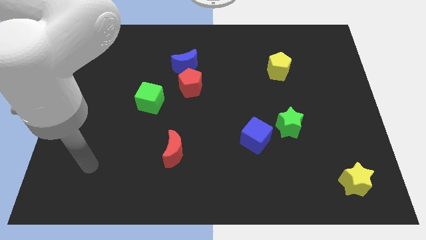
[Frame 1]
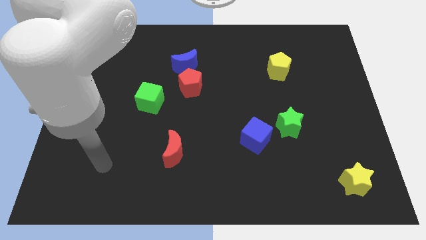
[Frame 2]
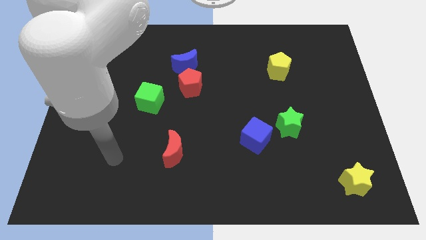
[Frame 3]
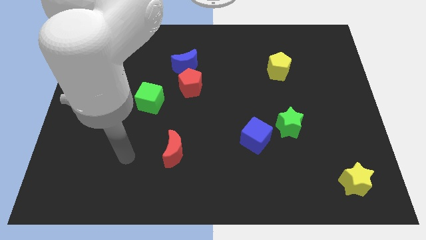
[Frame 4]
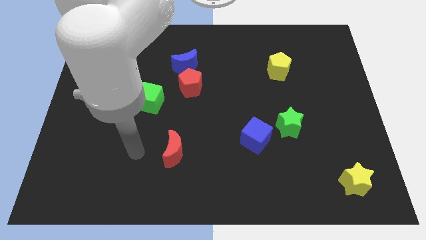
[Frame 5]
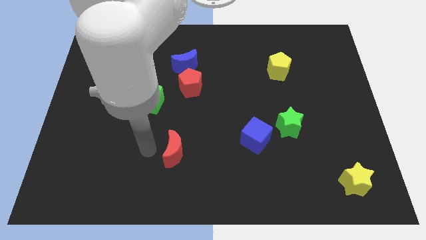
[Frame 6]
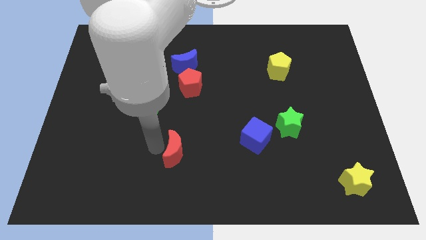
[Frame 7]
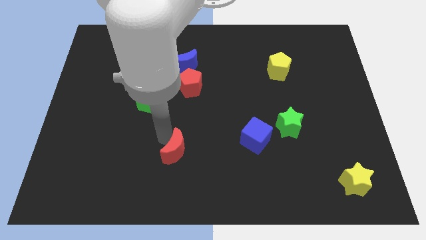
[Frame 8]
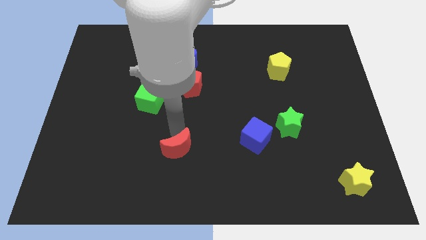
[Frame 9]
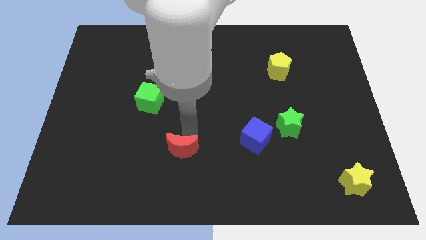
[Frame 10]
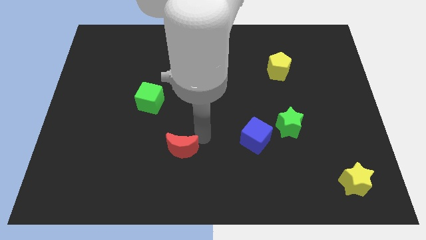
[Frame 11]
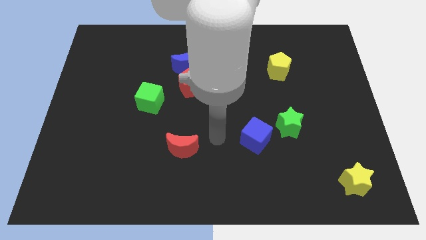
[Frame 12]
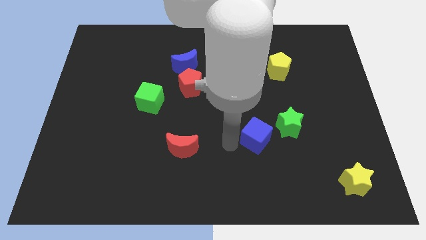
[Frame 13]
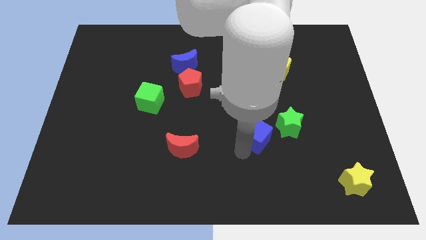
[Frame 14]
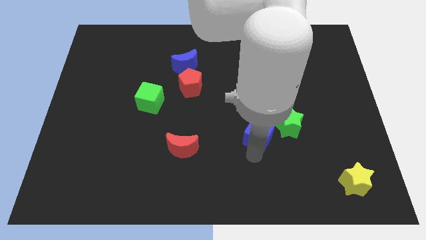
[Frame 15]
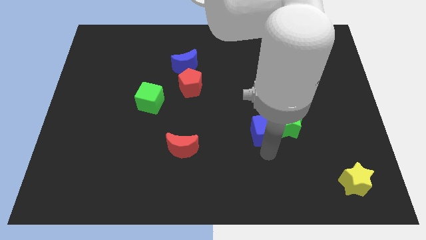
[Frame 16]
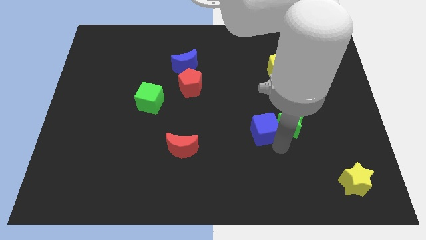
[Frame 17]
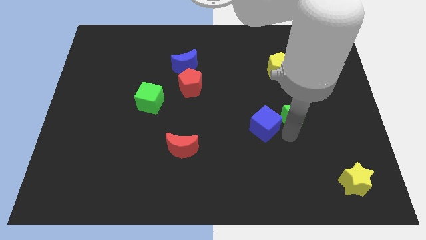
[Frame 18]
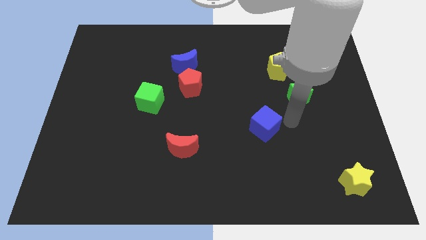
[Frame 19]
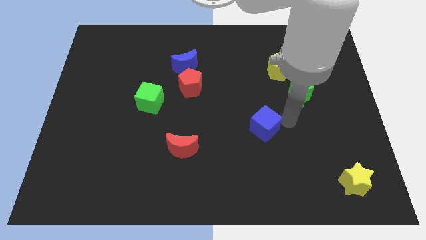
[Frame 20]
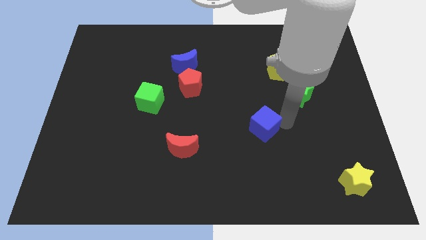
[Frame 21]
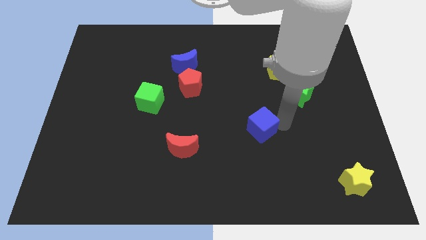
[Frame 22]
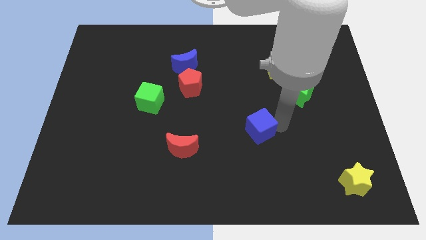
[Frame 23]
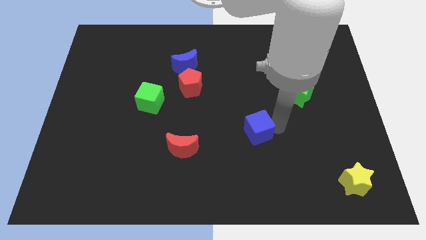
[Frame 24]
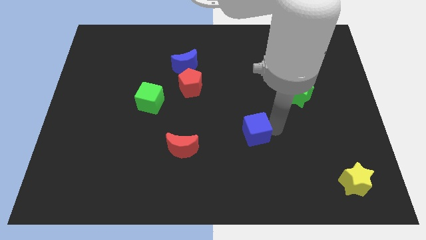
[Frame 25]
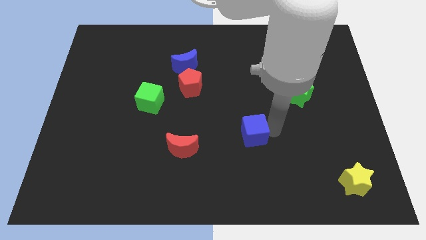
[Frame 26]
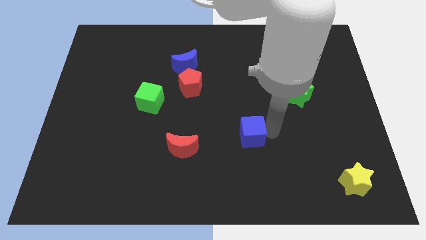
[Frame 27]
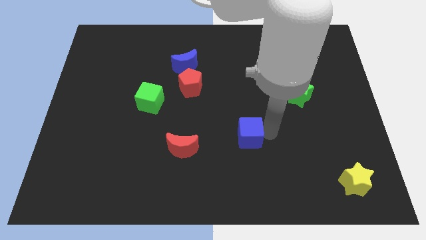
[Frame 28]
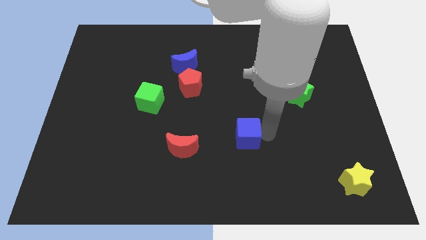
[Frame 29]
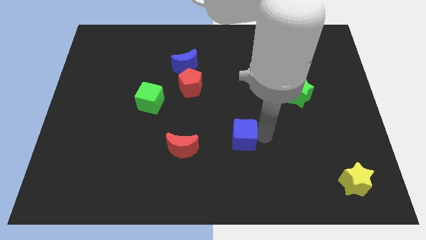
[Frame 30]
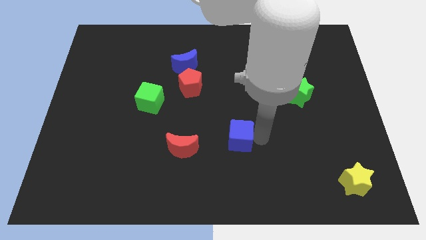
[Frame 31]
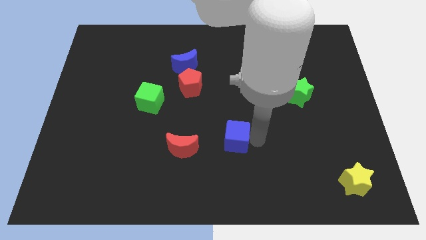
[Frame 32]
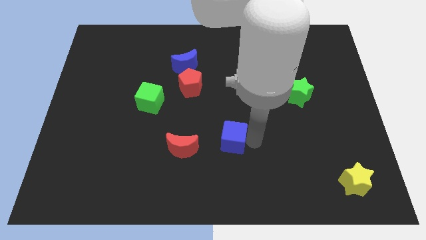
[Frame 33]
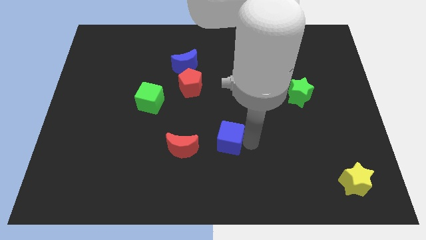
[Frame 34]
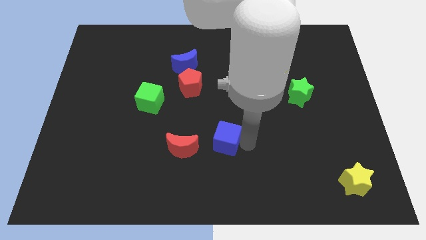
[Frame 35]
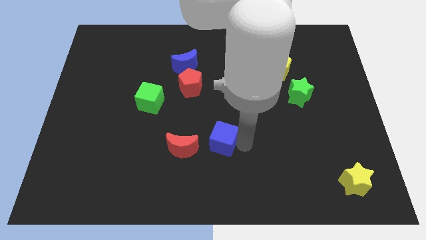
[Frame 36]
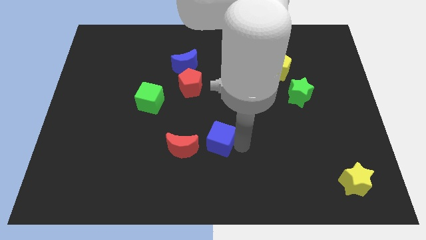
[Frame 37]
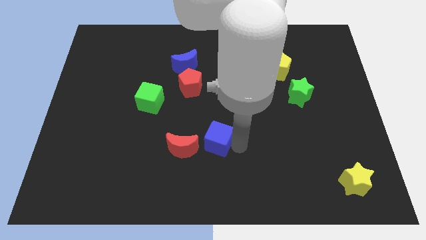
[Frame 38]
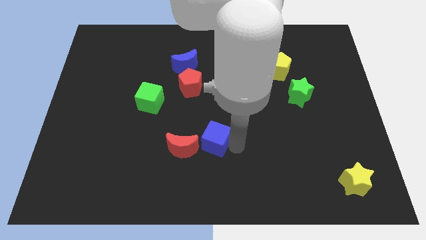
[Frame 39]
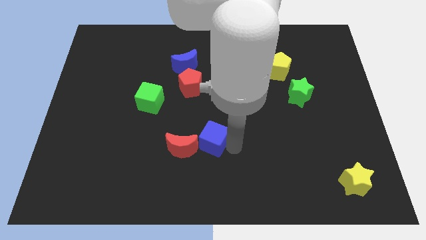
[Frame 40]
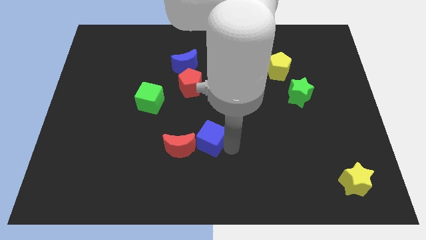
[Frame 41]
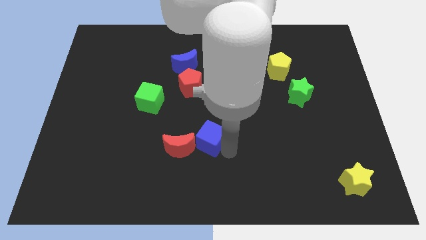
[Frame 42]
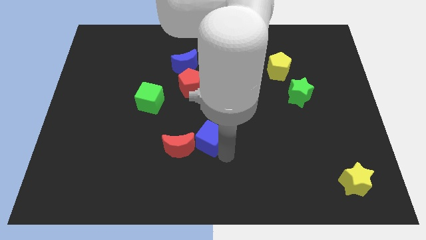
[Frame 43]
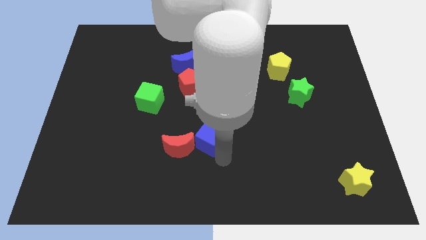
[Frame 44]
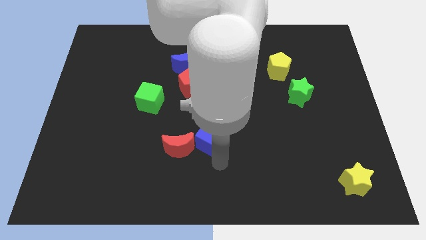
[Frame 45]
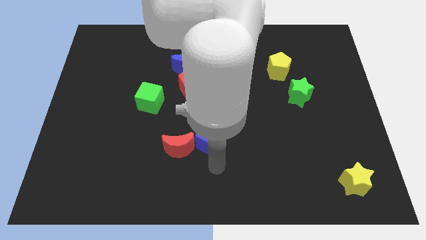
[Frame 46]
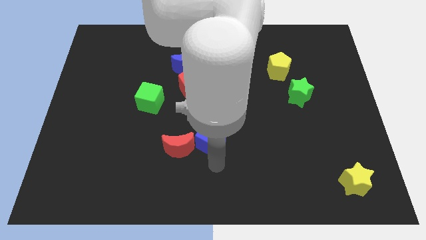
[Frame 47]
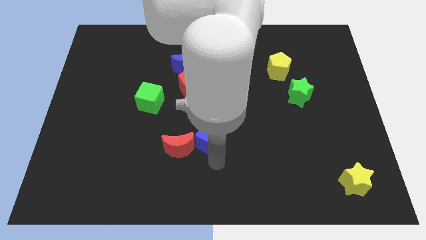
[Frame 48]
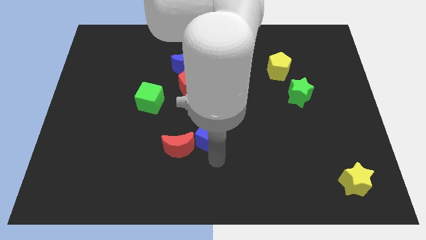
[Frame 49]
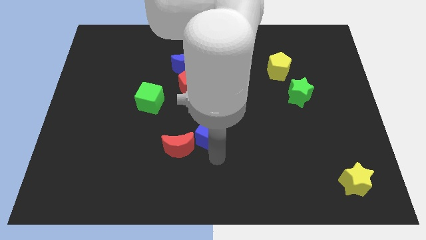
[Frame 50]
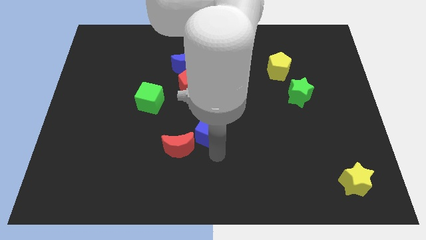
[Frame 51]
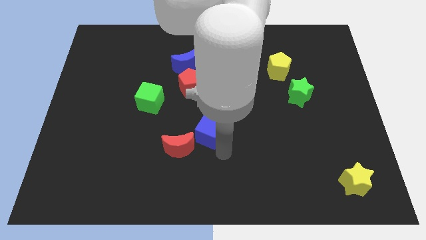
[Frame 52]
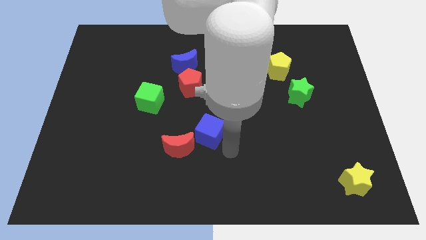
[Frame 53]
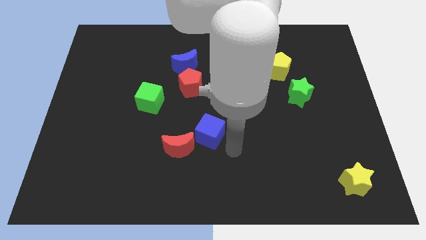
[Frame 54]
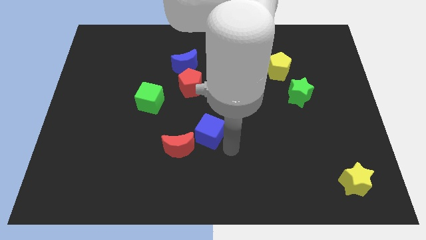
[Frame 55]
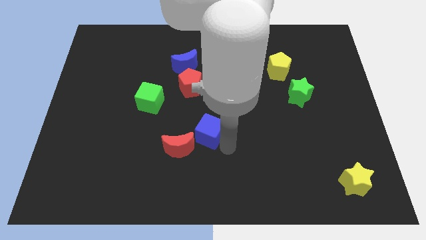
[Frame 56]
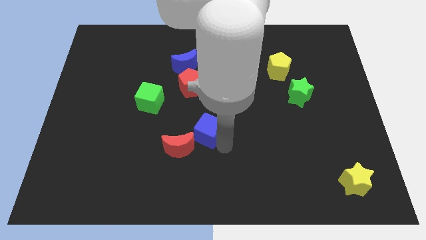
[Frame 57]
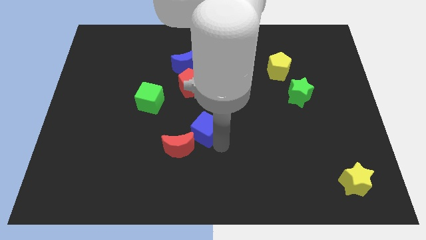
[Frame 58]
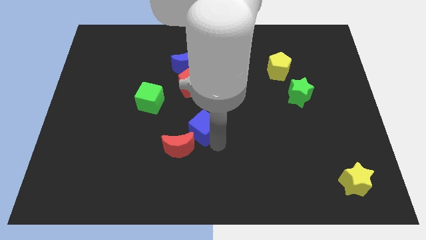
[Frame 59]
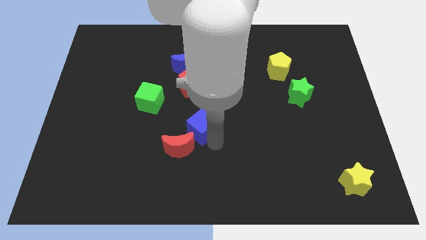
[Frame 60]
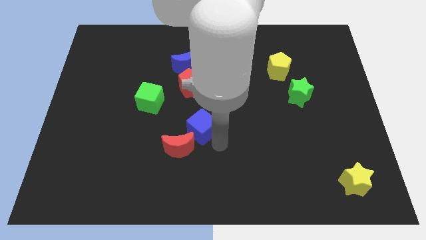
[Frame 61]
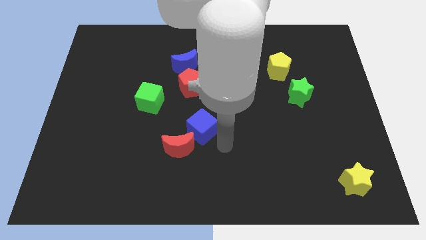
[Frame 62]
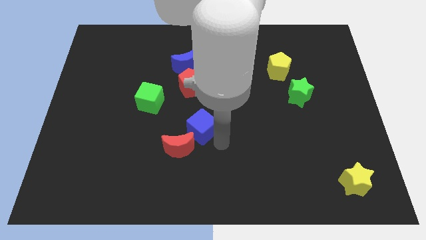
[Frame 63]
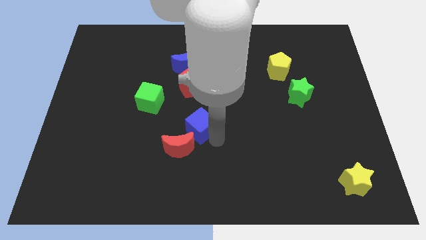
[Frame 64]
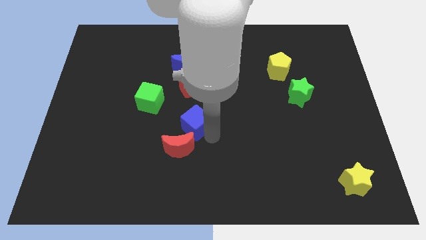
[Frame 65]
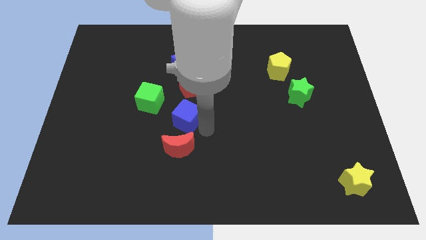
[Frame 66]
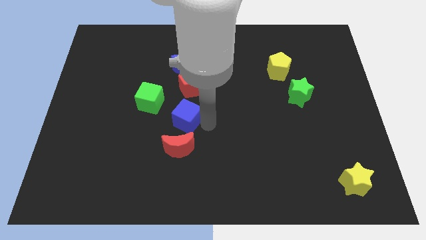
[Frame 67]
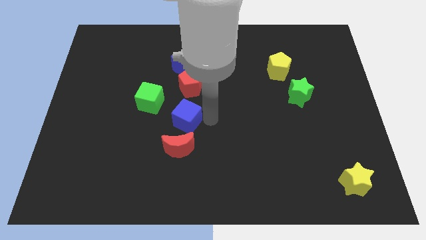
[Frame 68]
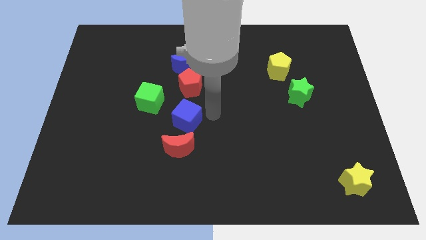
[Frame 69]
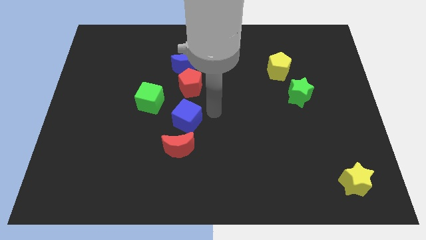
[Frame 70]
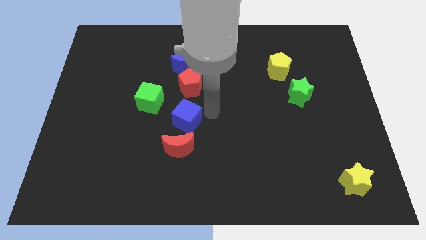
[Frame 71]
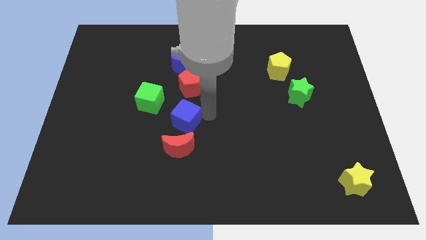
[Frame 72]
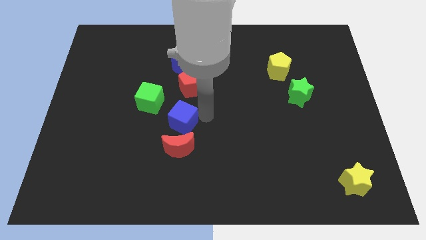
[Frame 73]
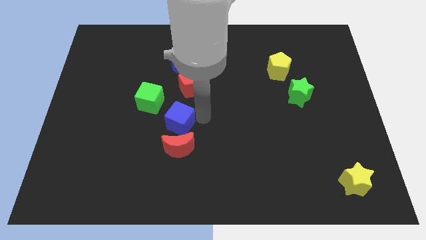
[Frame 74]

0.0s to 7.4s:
move the blue cube to the top left of the red moon

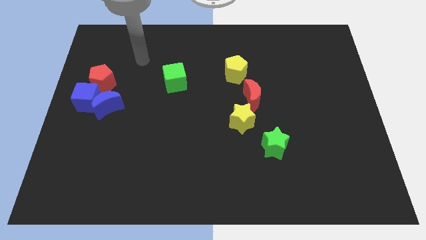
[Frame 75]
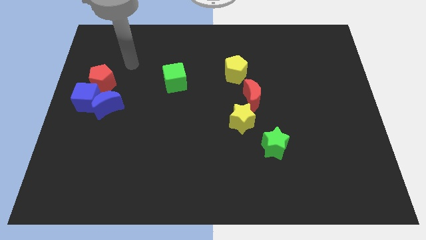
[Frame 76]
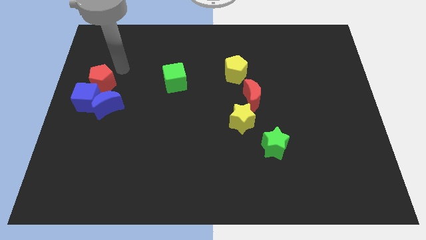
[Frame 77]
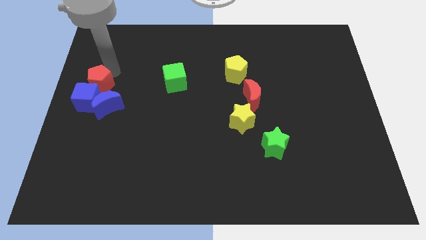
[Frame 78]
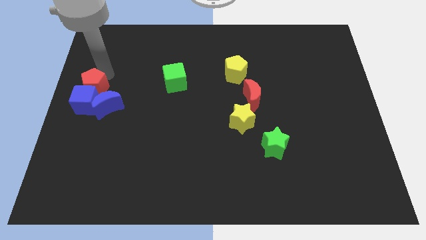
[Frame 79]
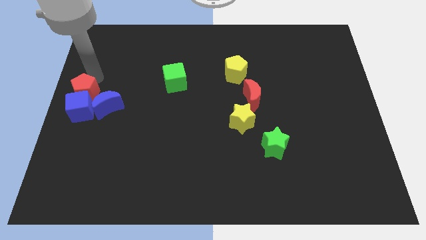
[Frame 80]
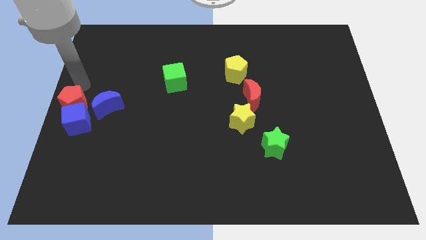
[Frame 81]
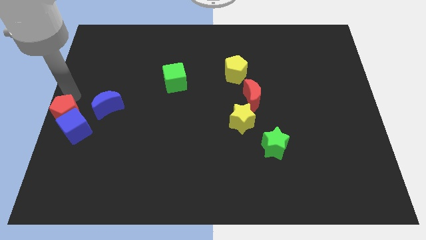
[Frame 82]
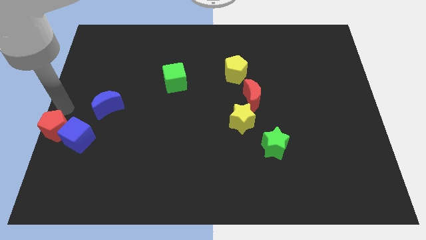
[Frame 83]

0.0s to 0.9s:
put the blue cube below the blue moon
